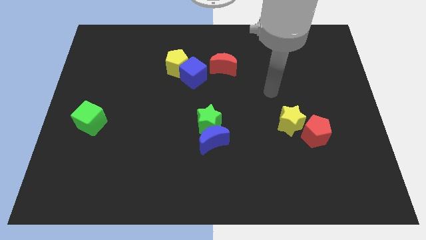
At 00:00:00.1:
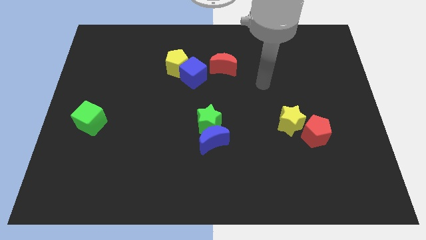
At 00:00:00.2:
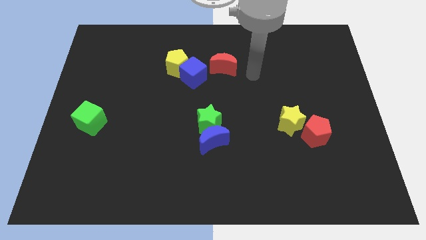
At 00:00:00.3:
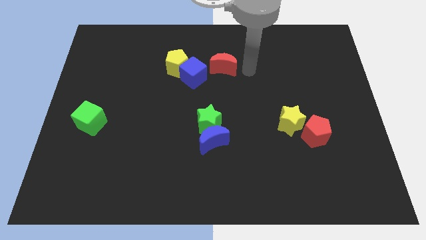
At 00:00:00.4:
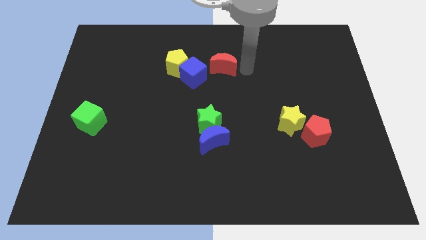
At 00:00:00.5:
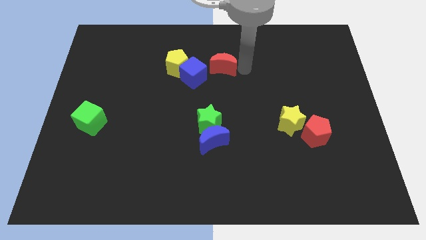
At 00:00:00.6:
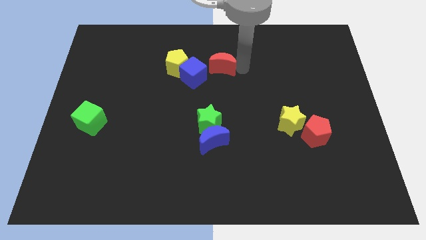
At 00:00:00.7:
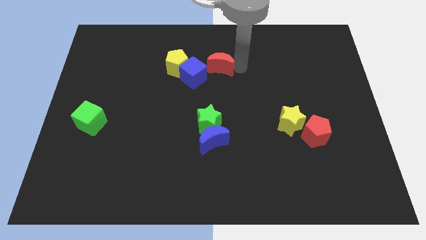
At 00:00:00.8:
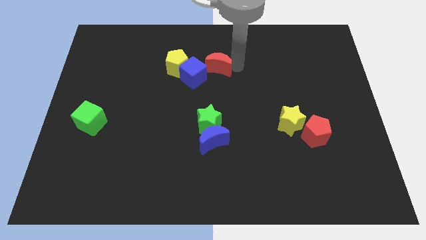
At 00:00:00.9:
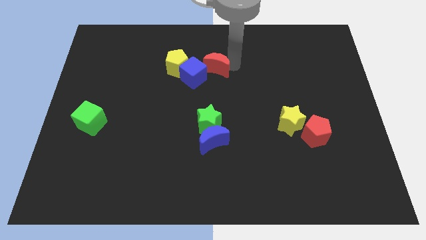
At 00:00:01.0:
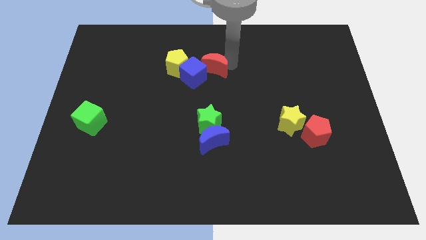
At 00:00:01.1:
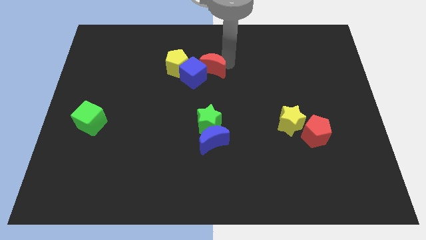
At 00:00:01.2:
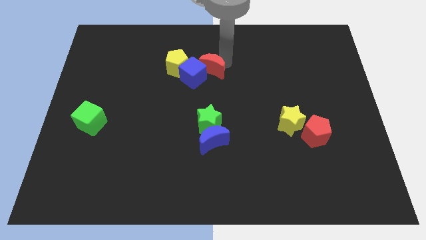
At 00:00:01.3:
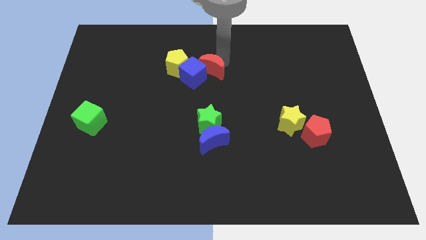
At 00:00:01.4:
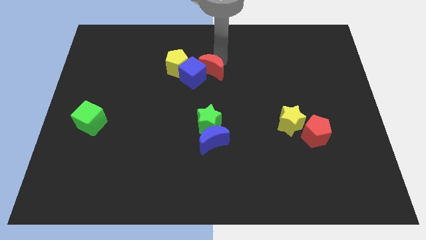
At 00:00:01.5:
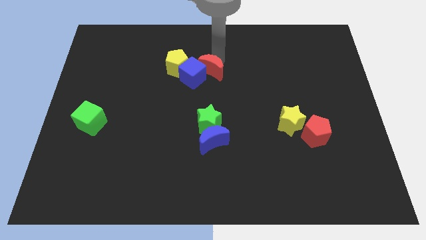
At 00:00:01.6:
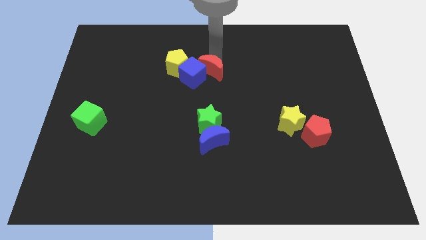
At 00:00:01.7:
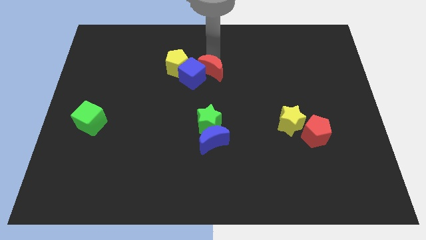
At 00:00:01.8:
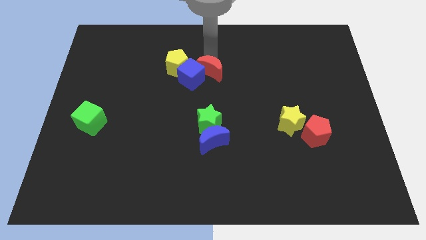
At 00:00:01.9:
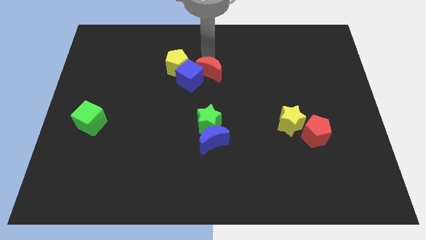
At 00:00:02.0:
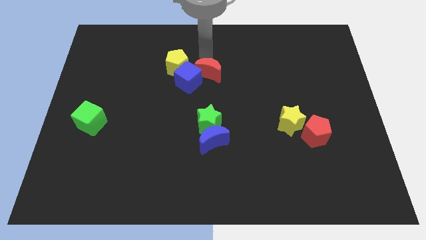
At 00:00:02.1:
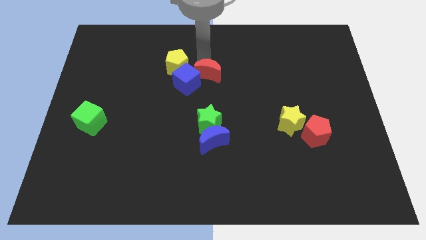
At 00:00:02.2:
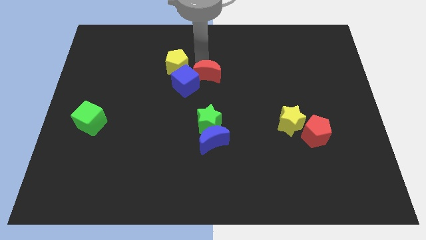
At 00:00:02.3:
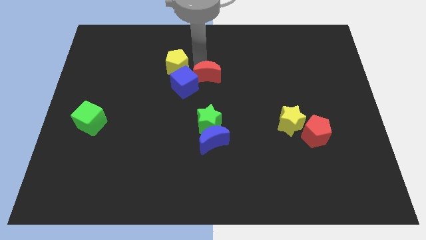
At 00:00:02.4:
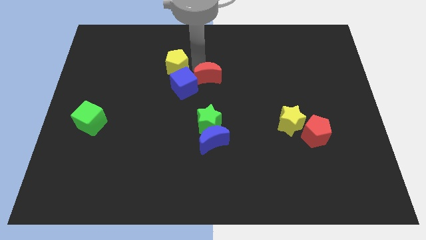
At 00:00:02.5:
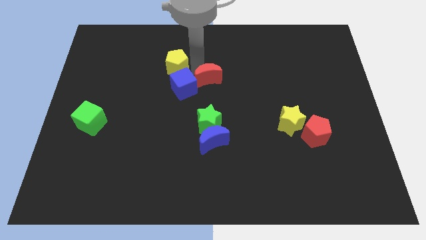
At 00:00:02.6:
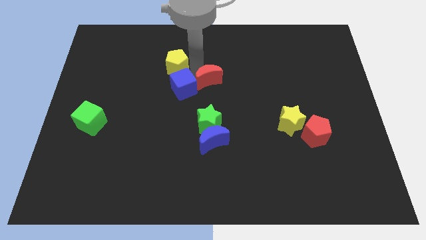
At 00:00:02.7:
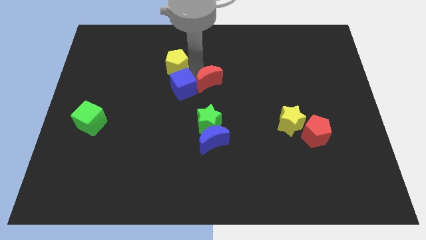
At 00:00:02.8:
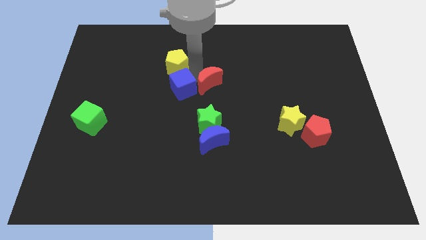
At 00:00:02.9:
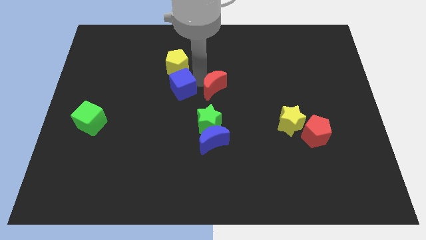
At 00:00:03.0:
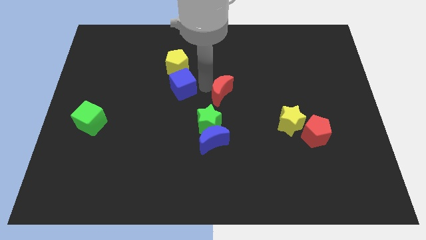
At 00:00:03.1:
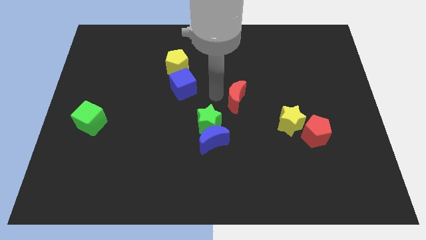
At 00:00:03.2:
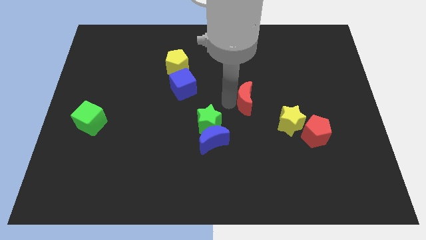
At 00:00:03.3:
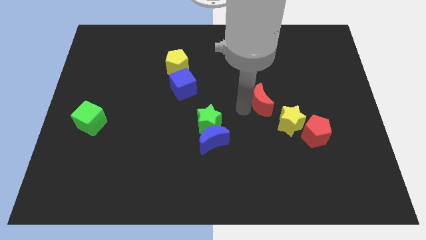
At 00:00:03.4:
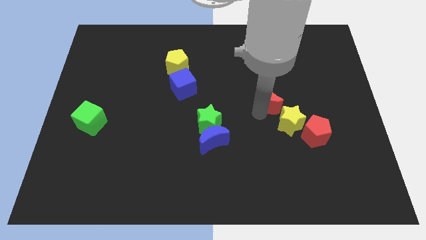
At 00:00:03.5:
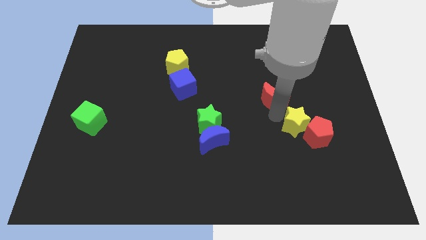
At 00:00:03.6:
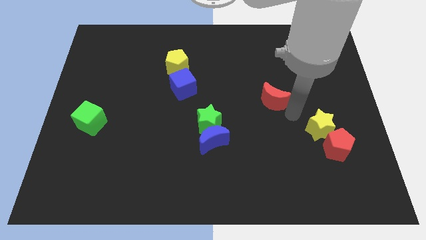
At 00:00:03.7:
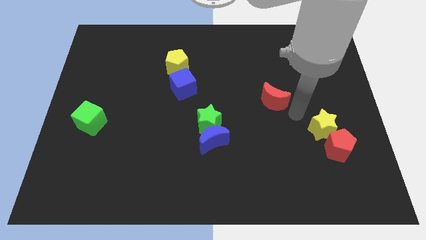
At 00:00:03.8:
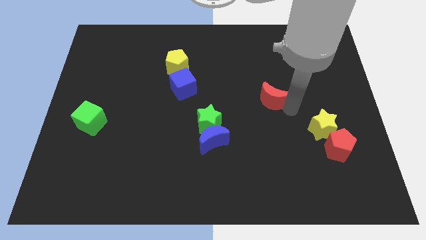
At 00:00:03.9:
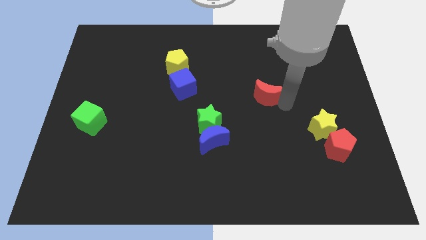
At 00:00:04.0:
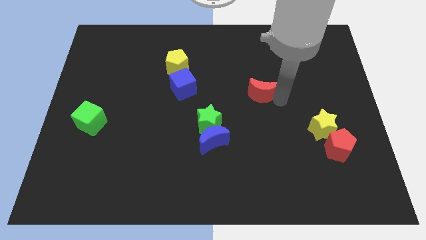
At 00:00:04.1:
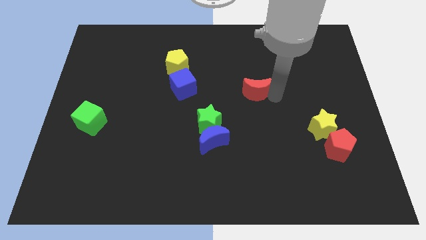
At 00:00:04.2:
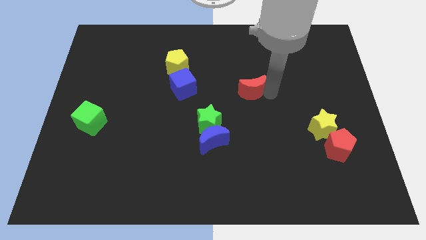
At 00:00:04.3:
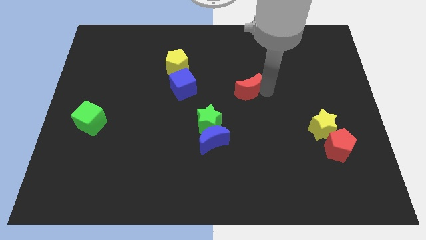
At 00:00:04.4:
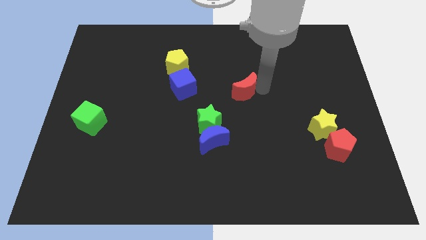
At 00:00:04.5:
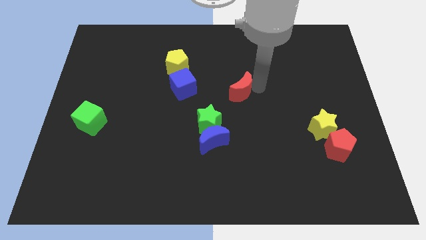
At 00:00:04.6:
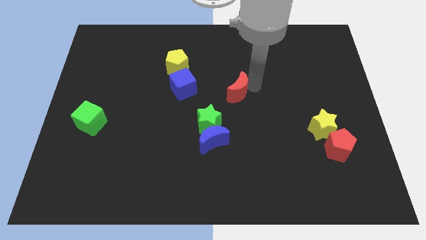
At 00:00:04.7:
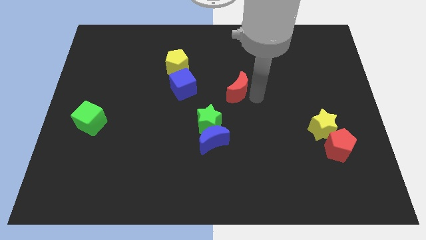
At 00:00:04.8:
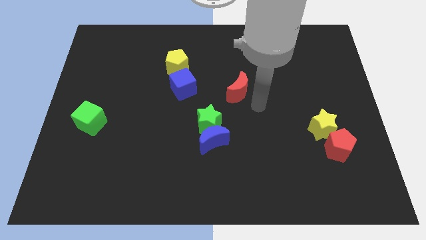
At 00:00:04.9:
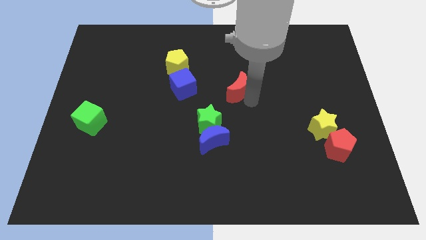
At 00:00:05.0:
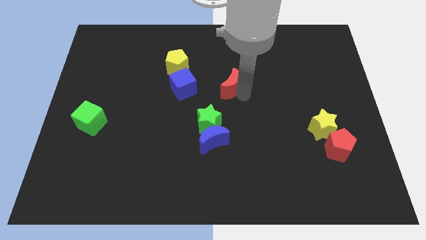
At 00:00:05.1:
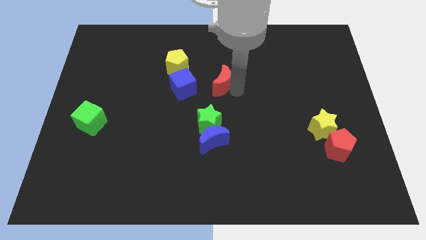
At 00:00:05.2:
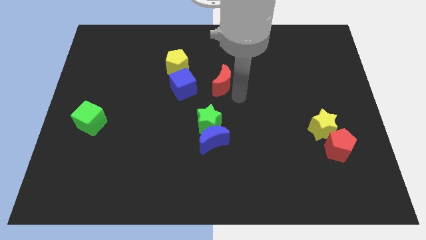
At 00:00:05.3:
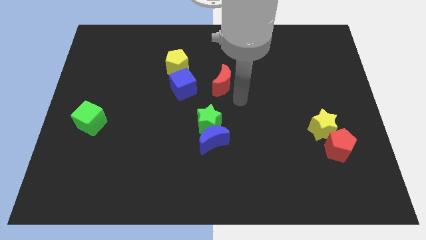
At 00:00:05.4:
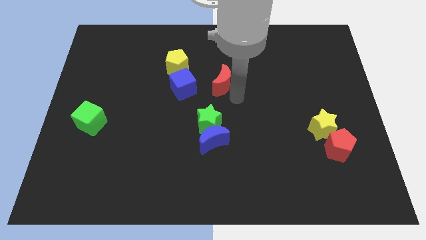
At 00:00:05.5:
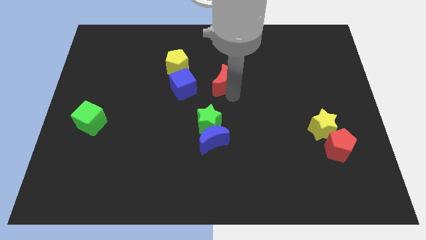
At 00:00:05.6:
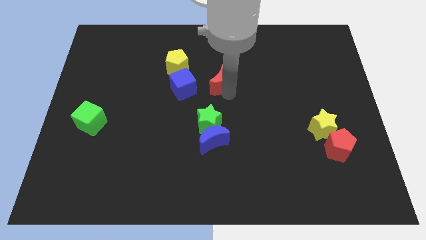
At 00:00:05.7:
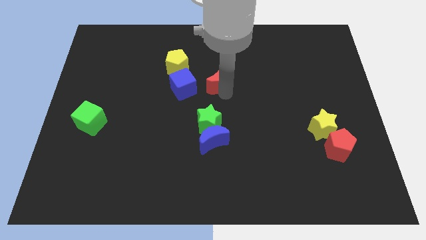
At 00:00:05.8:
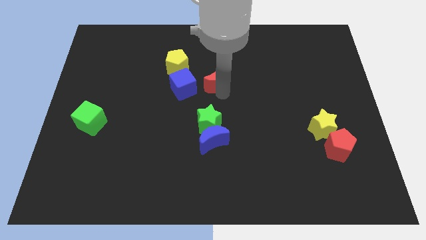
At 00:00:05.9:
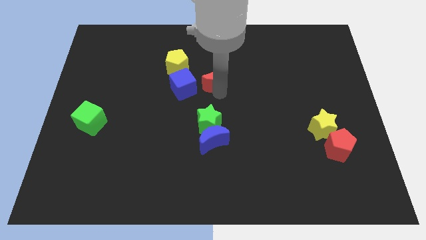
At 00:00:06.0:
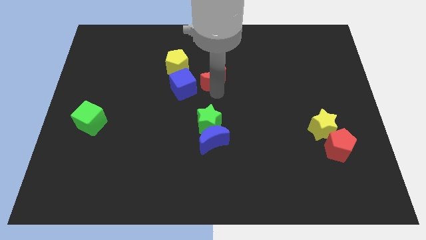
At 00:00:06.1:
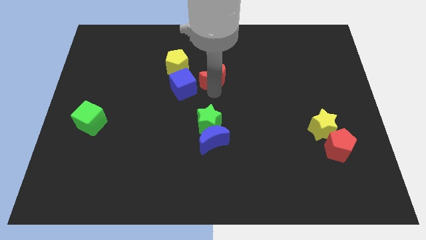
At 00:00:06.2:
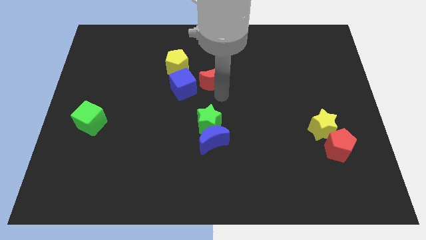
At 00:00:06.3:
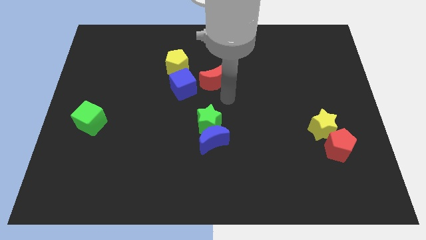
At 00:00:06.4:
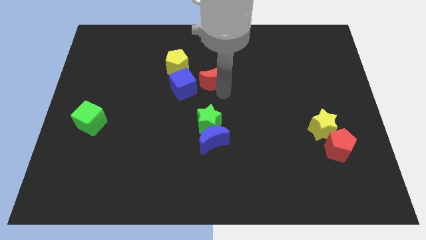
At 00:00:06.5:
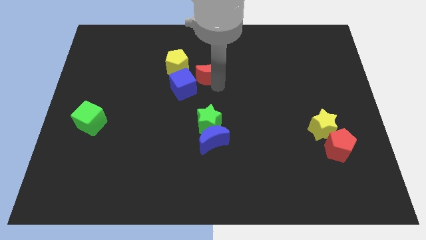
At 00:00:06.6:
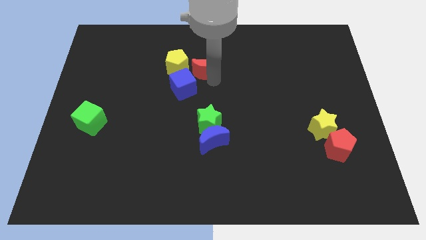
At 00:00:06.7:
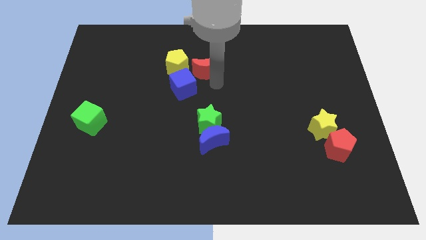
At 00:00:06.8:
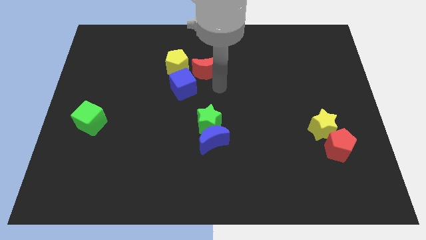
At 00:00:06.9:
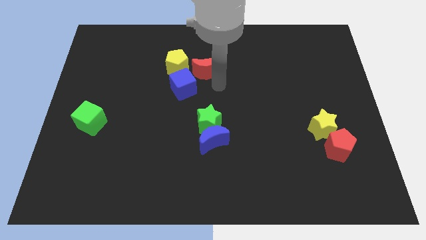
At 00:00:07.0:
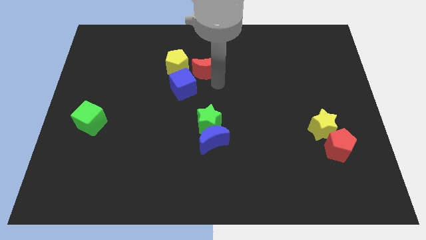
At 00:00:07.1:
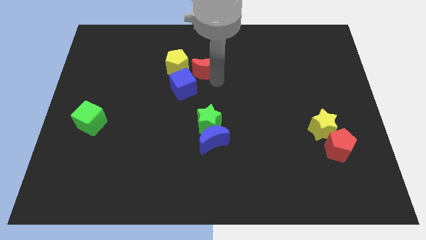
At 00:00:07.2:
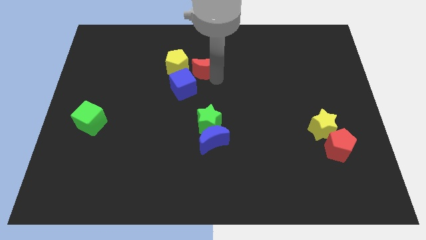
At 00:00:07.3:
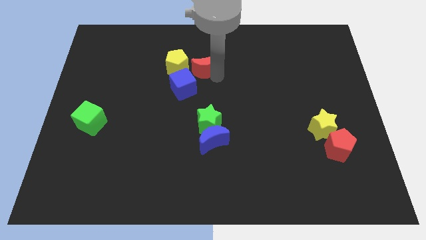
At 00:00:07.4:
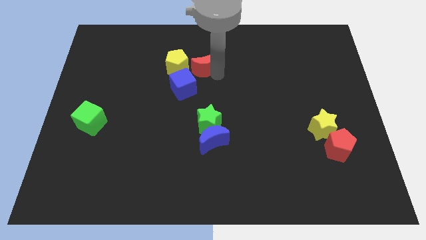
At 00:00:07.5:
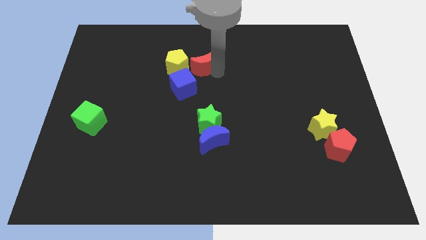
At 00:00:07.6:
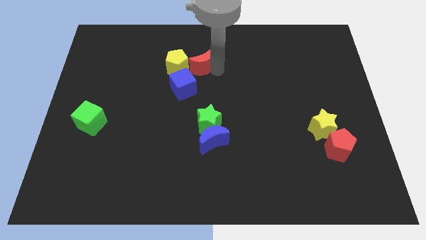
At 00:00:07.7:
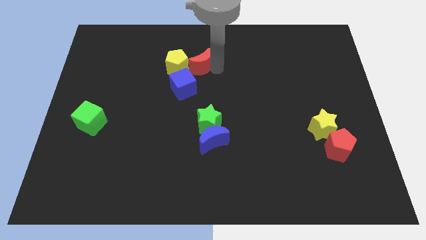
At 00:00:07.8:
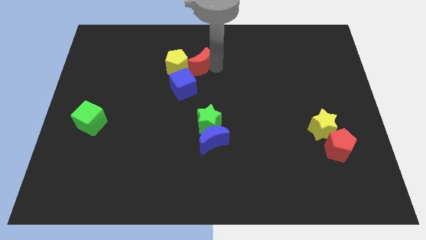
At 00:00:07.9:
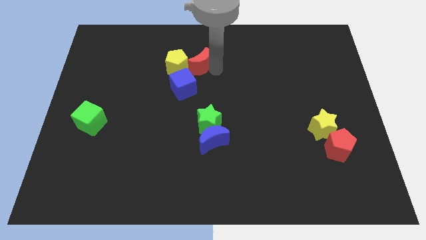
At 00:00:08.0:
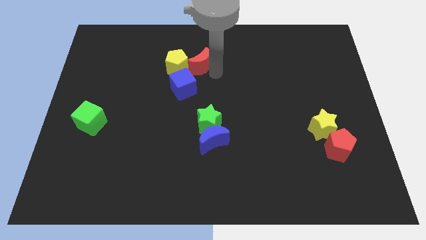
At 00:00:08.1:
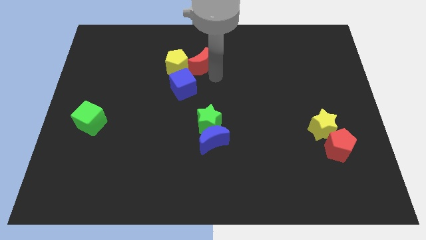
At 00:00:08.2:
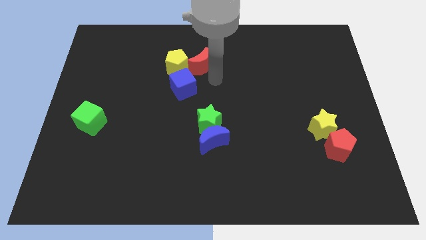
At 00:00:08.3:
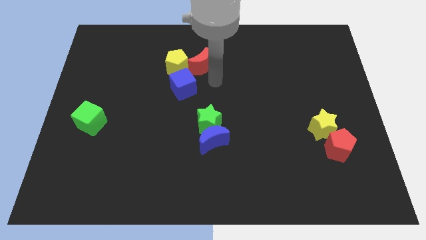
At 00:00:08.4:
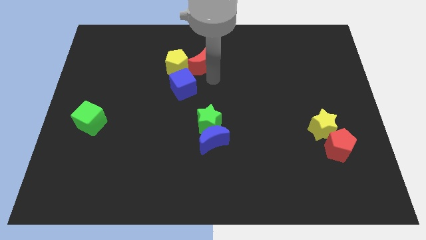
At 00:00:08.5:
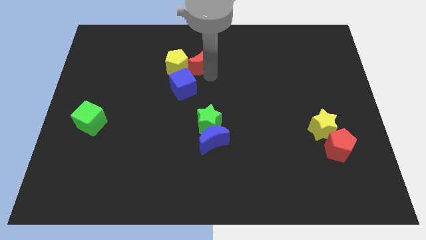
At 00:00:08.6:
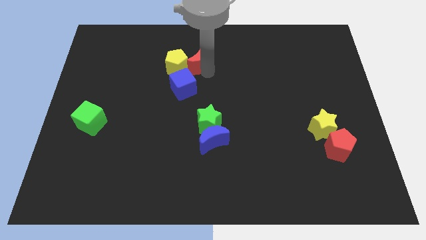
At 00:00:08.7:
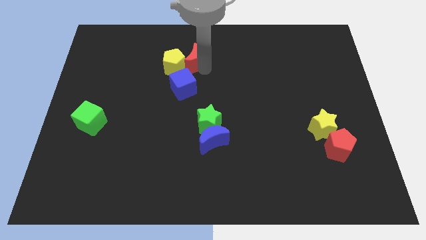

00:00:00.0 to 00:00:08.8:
slightly move the red moon to the left
